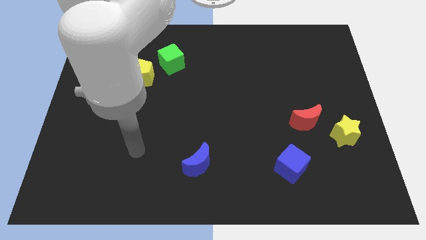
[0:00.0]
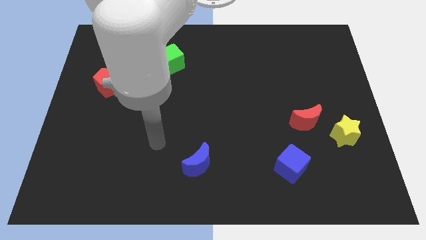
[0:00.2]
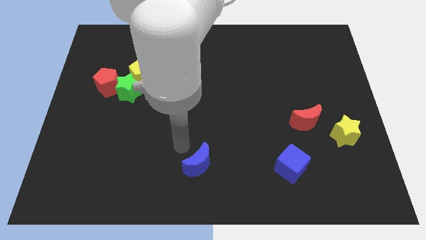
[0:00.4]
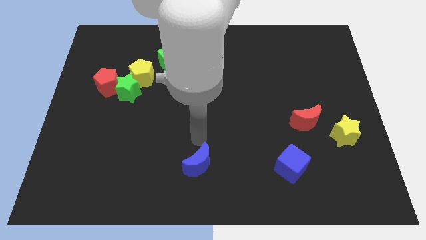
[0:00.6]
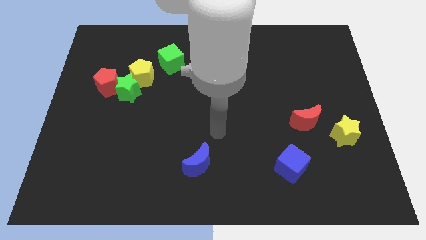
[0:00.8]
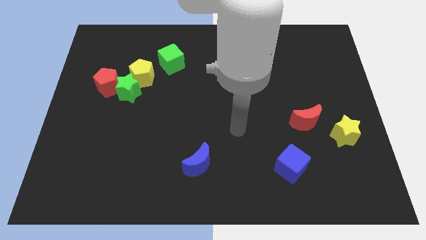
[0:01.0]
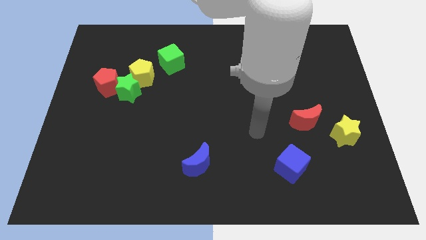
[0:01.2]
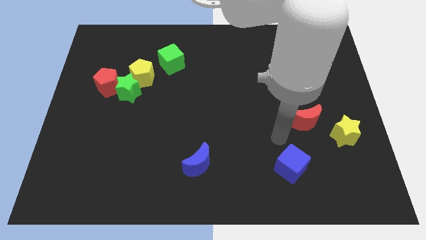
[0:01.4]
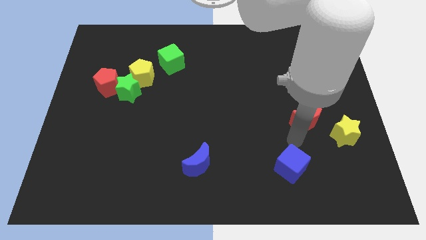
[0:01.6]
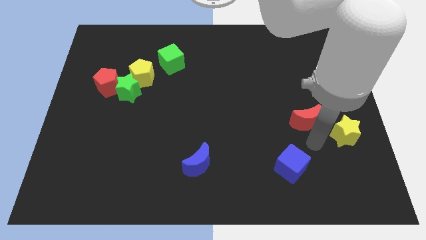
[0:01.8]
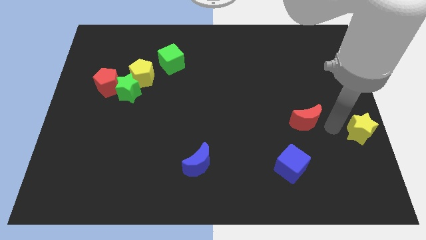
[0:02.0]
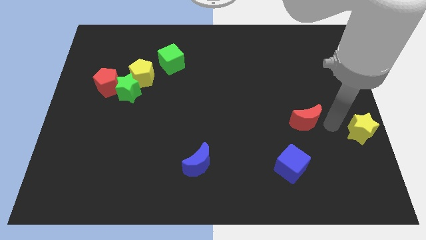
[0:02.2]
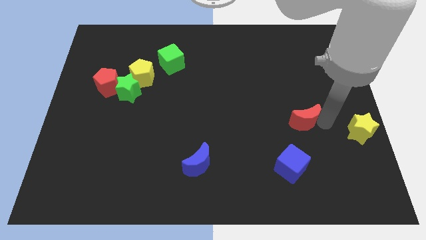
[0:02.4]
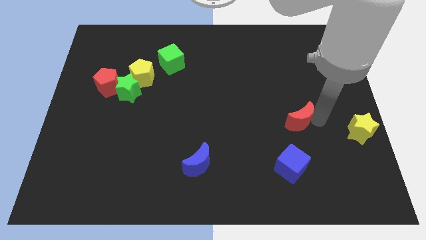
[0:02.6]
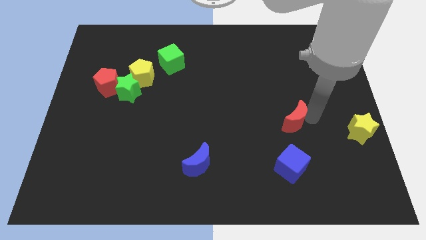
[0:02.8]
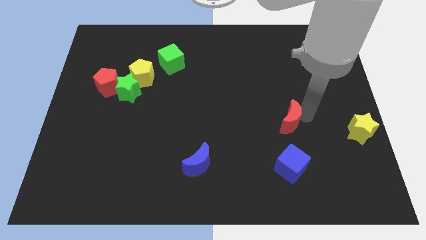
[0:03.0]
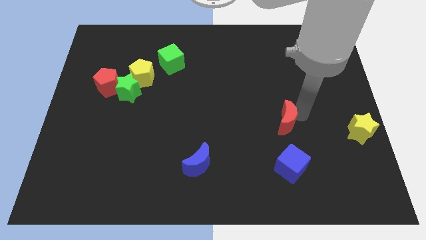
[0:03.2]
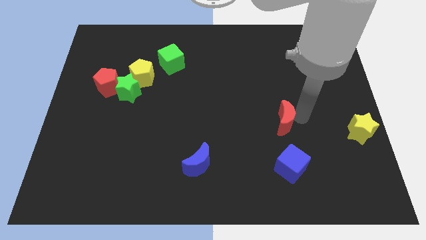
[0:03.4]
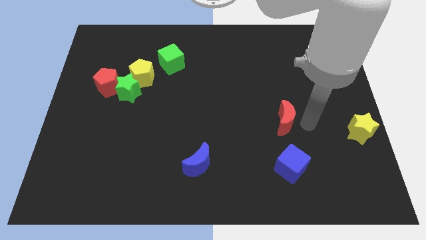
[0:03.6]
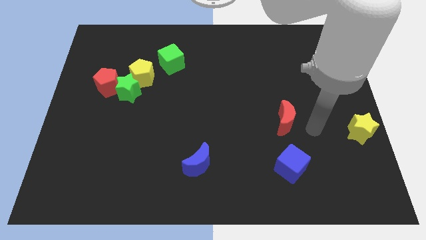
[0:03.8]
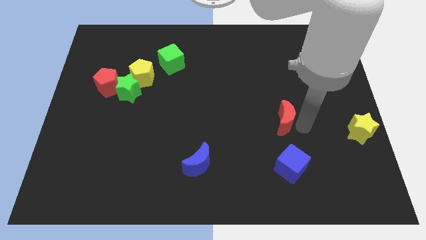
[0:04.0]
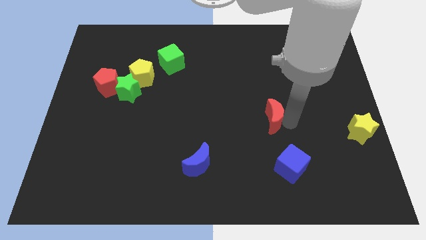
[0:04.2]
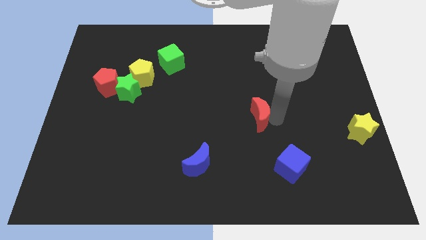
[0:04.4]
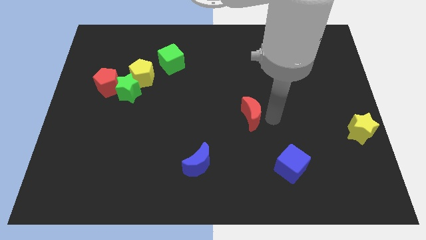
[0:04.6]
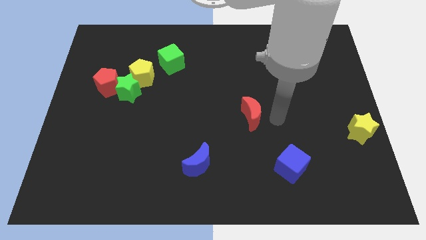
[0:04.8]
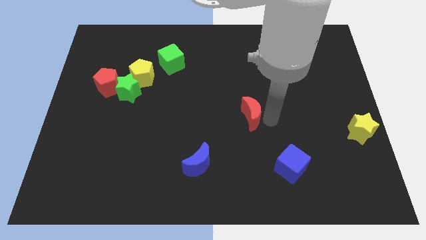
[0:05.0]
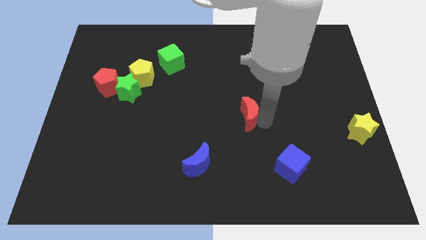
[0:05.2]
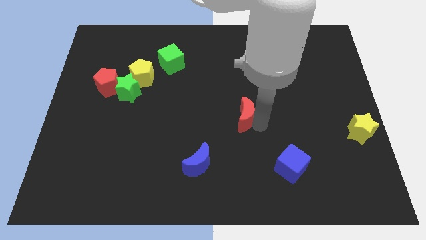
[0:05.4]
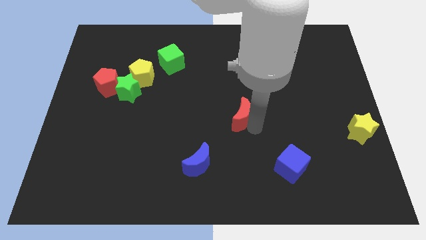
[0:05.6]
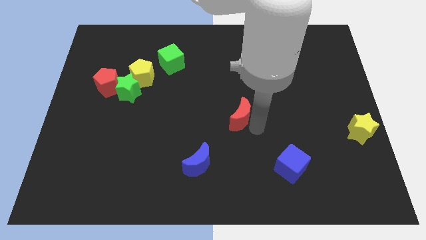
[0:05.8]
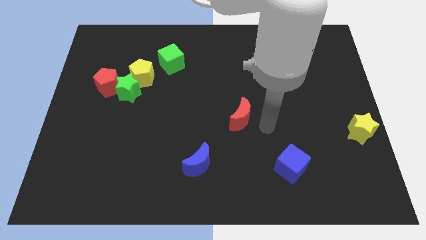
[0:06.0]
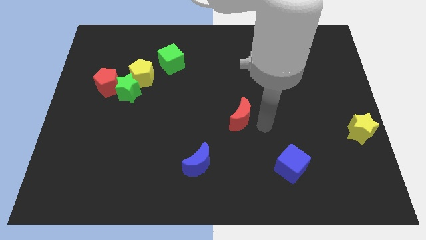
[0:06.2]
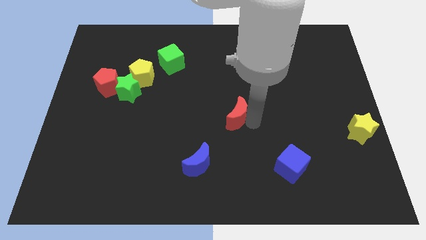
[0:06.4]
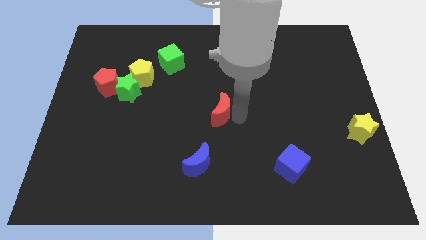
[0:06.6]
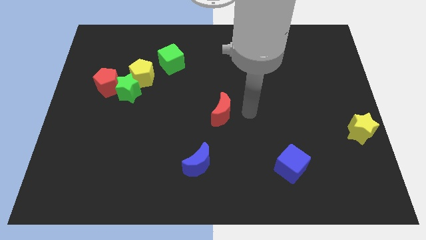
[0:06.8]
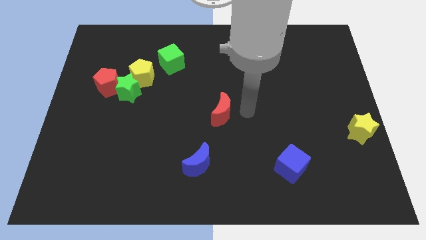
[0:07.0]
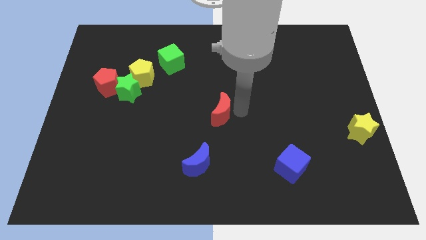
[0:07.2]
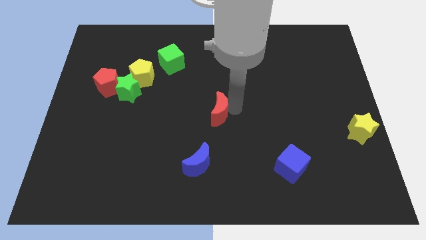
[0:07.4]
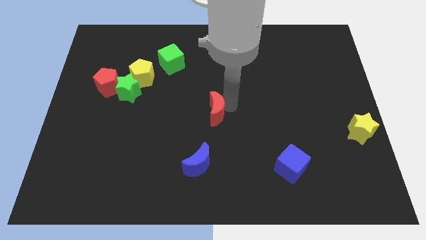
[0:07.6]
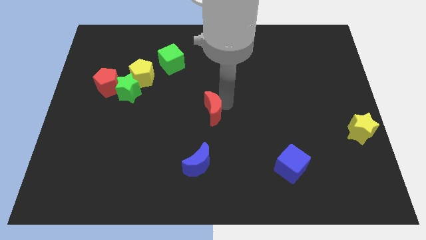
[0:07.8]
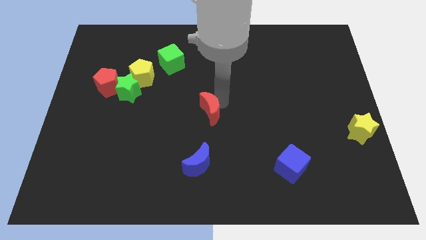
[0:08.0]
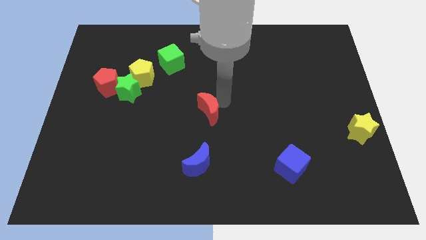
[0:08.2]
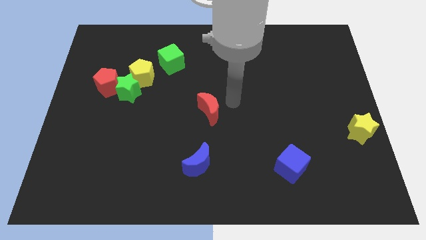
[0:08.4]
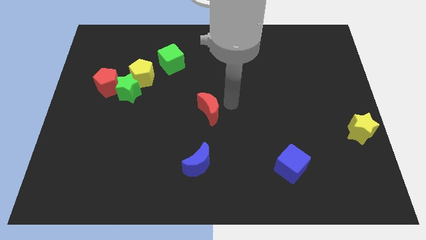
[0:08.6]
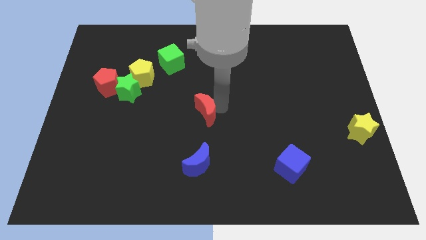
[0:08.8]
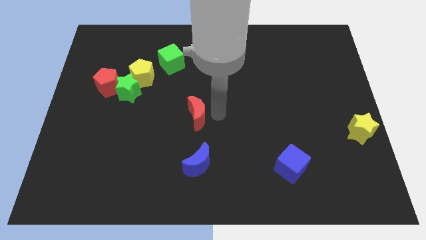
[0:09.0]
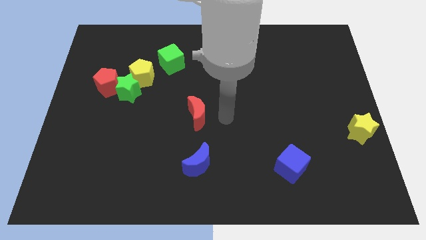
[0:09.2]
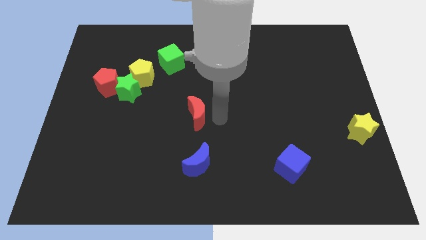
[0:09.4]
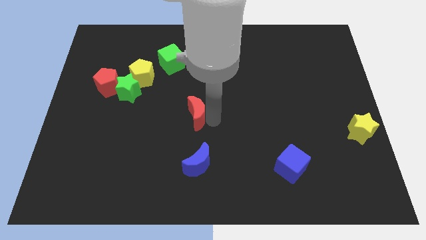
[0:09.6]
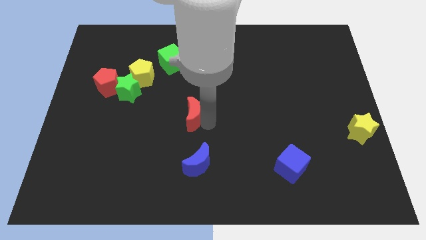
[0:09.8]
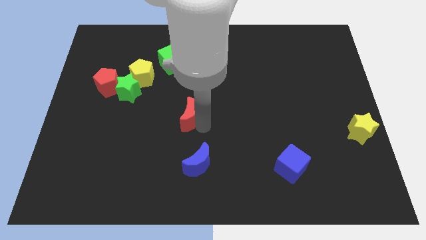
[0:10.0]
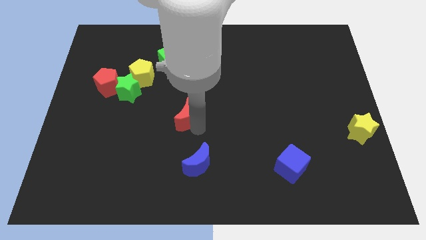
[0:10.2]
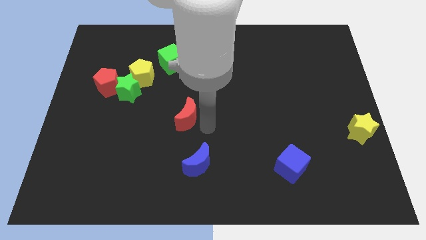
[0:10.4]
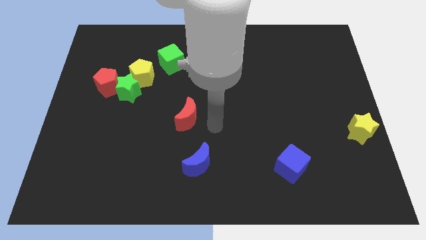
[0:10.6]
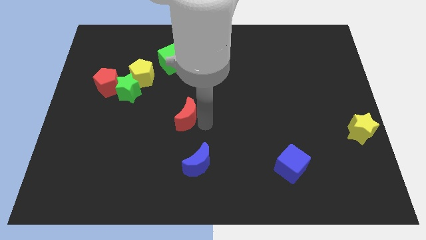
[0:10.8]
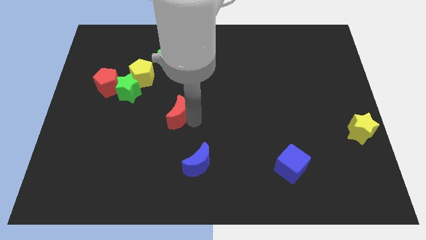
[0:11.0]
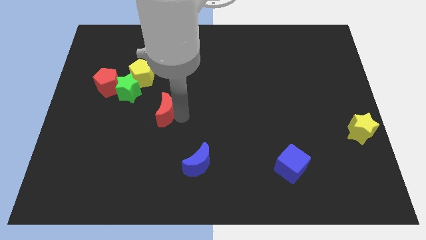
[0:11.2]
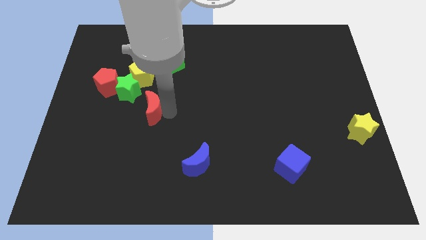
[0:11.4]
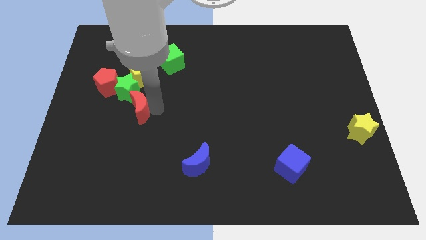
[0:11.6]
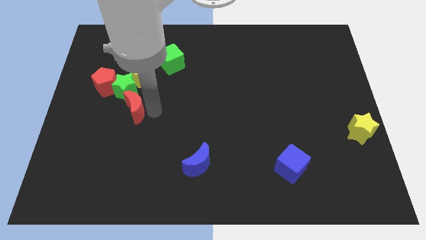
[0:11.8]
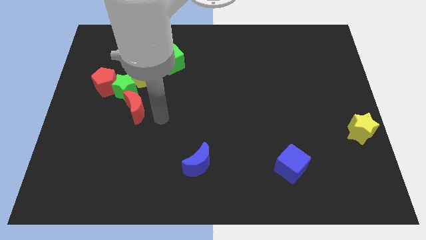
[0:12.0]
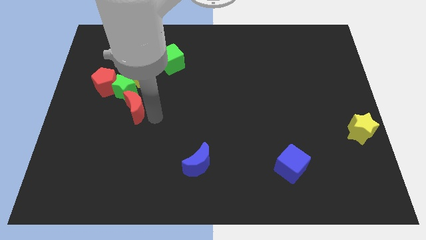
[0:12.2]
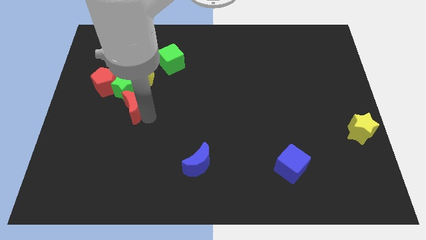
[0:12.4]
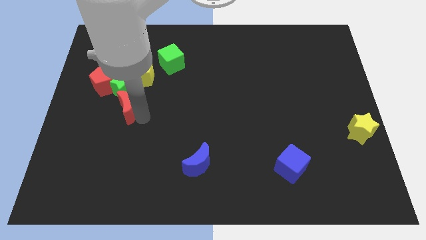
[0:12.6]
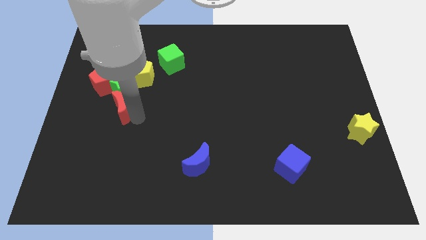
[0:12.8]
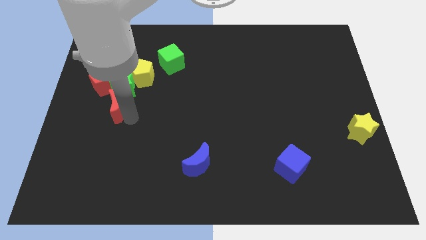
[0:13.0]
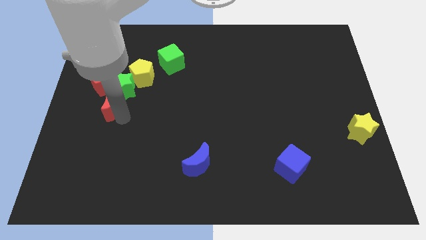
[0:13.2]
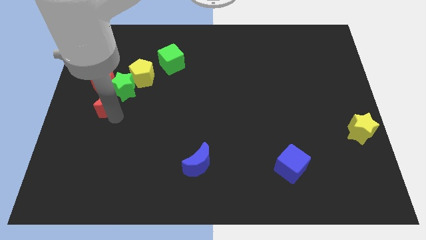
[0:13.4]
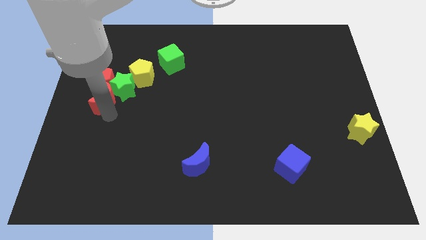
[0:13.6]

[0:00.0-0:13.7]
slide the red moon next to the red pentagon

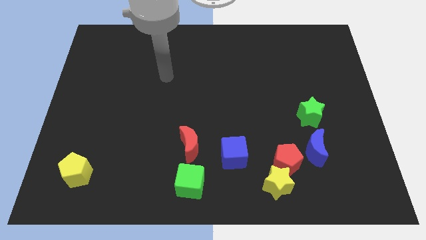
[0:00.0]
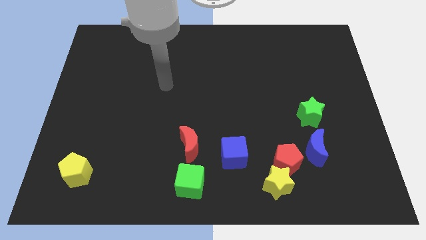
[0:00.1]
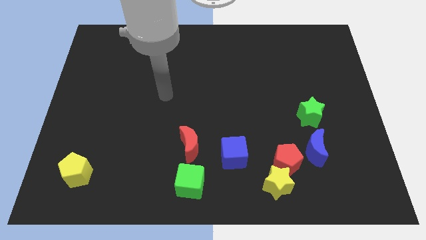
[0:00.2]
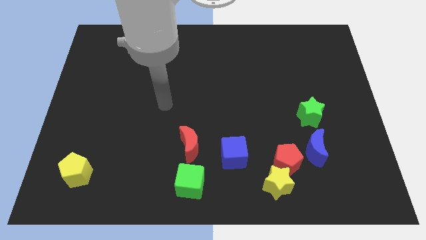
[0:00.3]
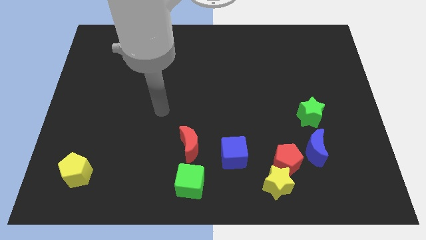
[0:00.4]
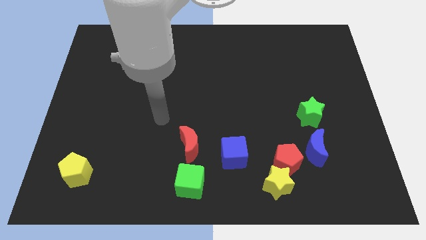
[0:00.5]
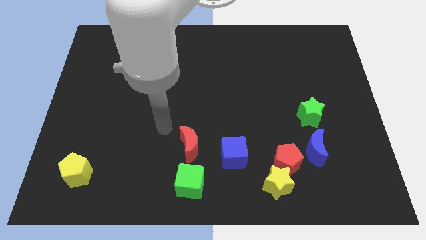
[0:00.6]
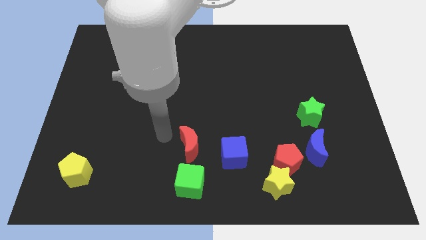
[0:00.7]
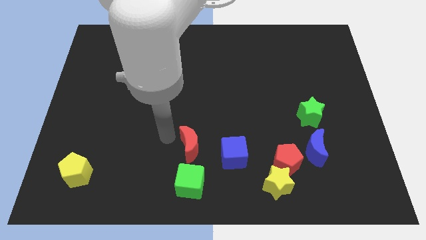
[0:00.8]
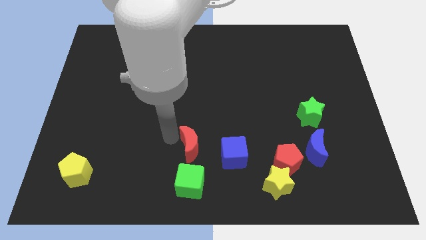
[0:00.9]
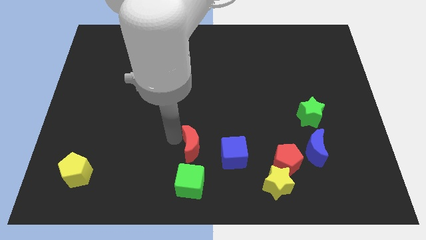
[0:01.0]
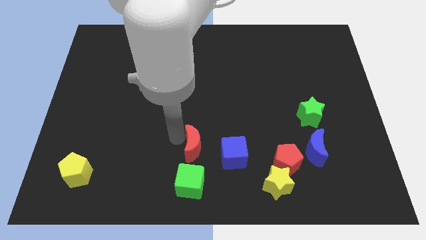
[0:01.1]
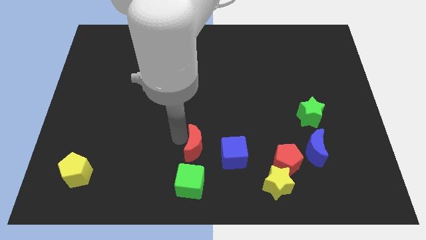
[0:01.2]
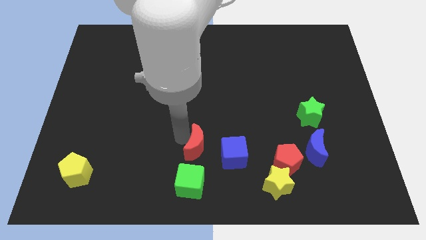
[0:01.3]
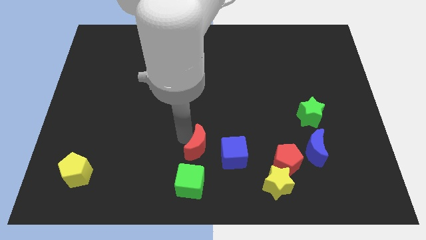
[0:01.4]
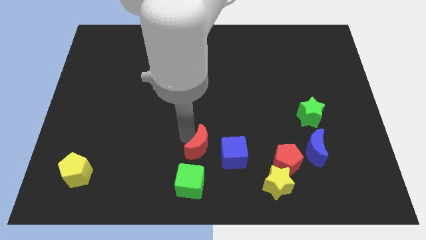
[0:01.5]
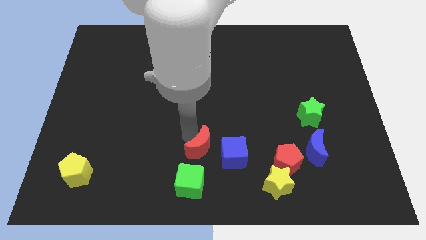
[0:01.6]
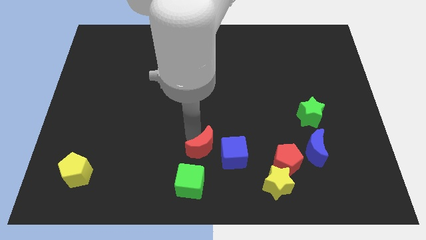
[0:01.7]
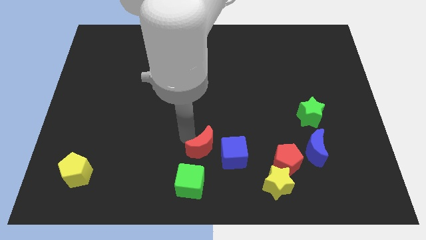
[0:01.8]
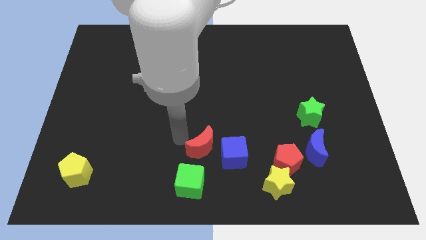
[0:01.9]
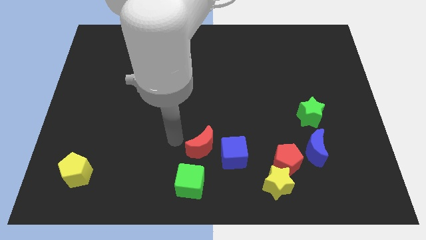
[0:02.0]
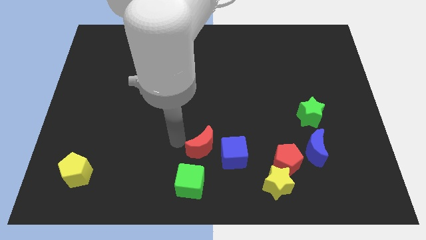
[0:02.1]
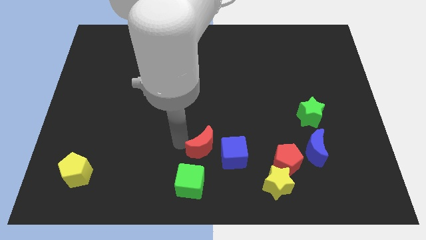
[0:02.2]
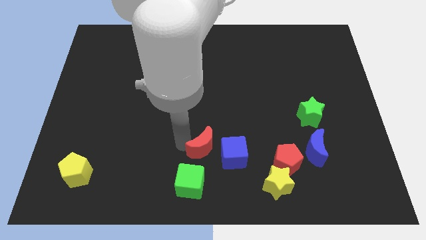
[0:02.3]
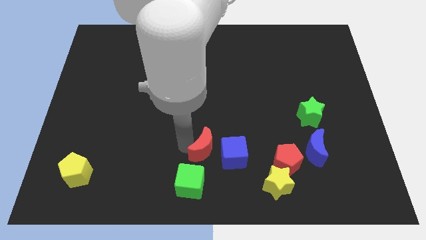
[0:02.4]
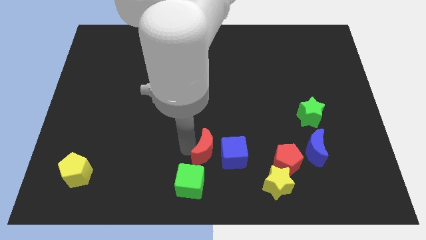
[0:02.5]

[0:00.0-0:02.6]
push the red moon next to the blue cube
